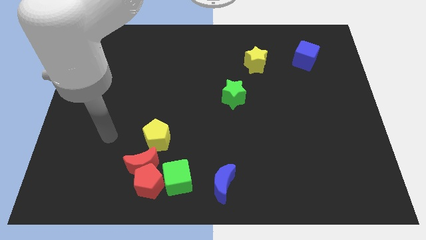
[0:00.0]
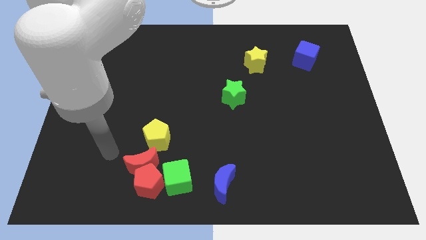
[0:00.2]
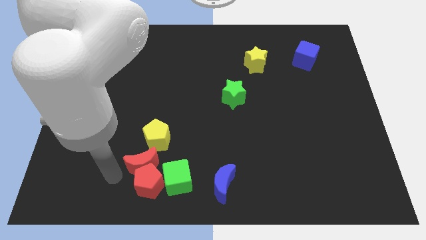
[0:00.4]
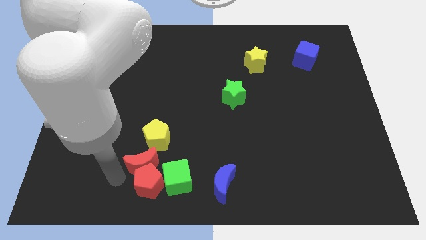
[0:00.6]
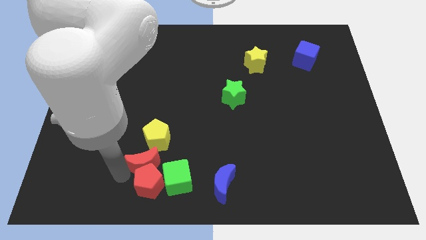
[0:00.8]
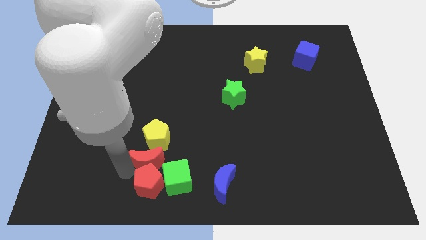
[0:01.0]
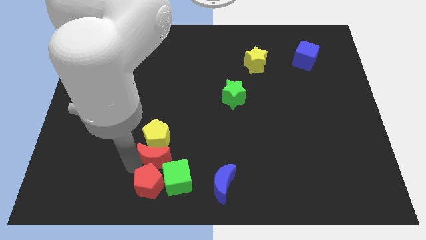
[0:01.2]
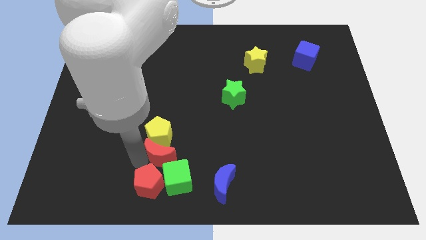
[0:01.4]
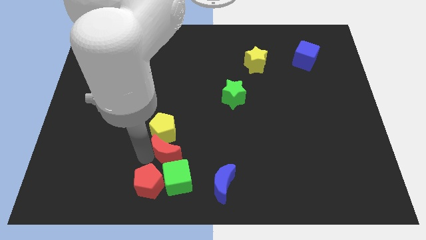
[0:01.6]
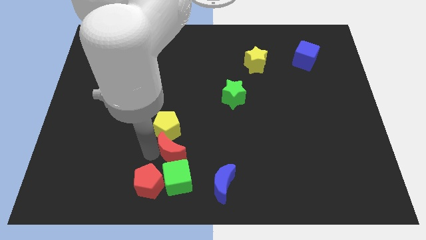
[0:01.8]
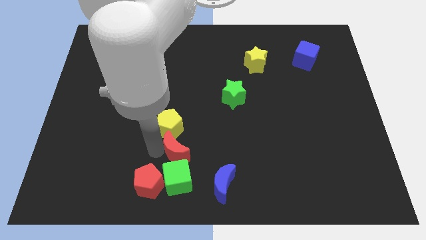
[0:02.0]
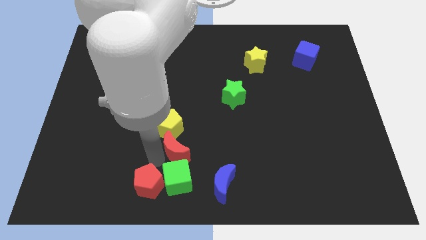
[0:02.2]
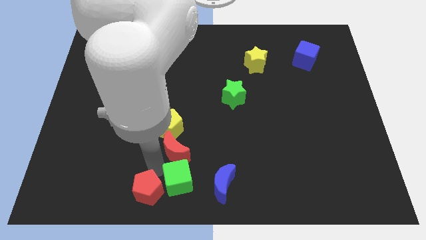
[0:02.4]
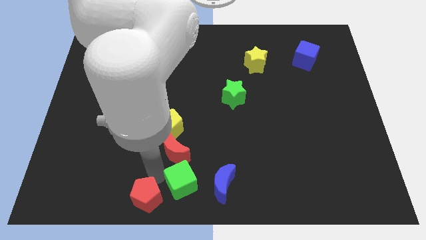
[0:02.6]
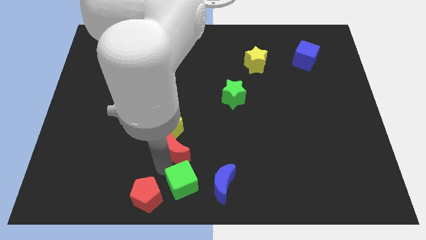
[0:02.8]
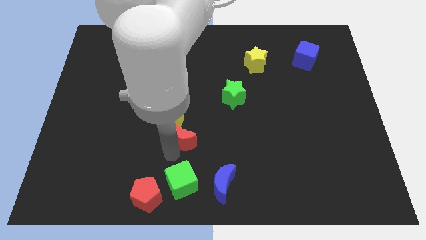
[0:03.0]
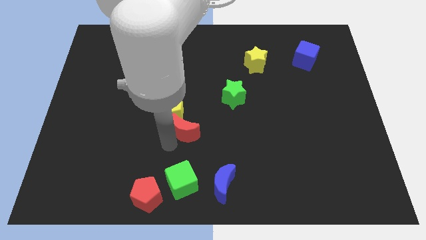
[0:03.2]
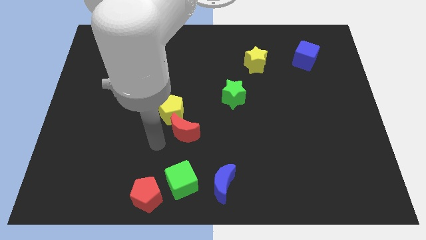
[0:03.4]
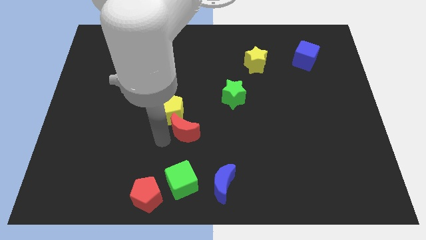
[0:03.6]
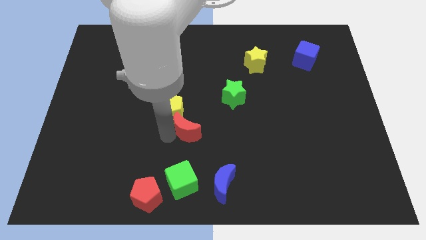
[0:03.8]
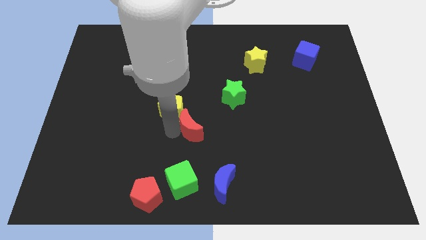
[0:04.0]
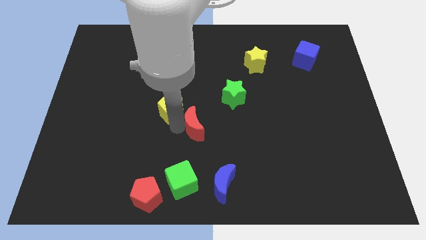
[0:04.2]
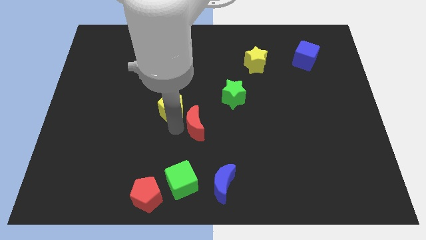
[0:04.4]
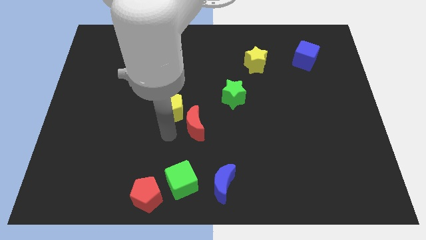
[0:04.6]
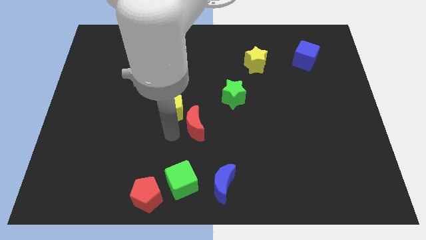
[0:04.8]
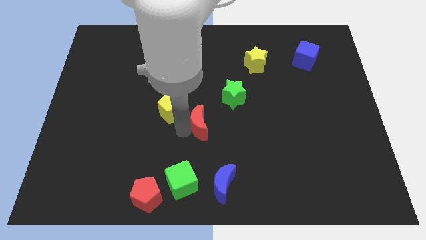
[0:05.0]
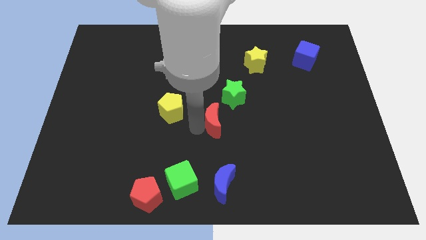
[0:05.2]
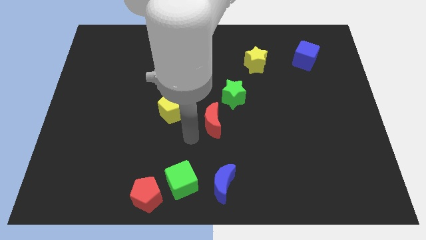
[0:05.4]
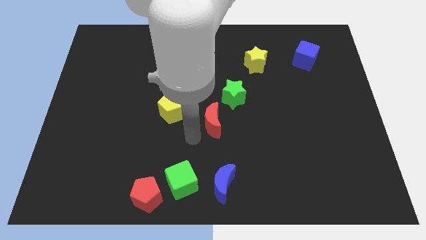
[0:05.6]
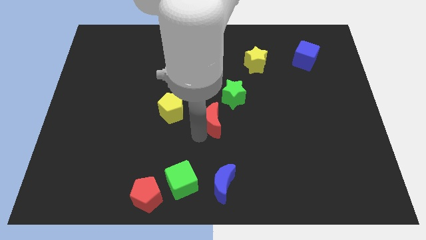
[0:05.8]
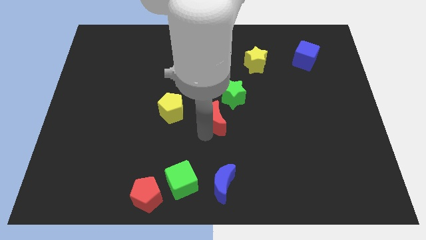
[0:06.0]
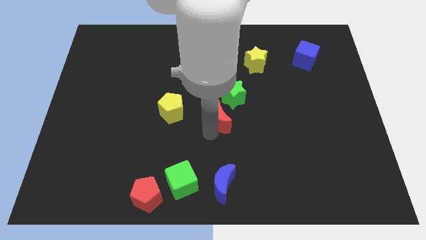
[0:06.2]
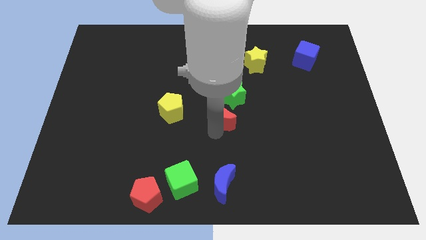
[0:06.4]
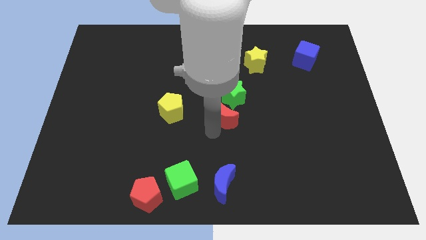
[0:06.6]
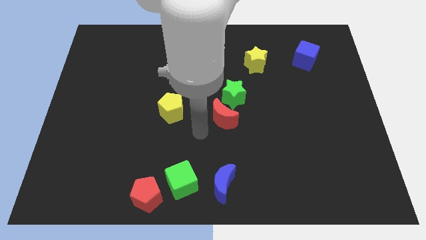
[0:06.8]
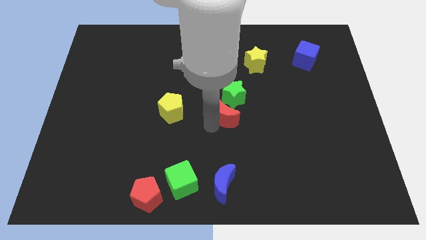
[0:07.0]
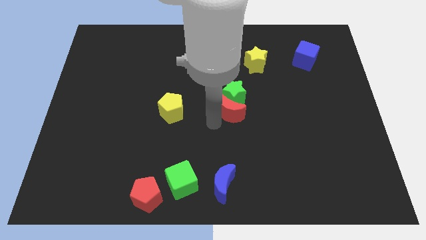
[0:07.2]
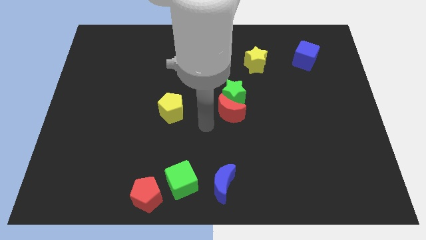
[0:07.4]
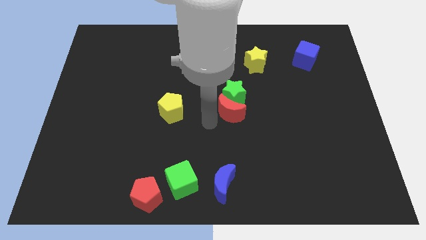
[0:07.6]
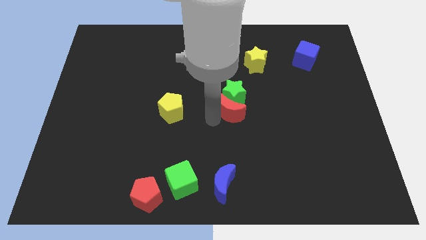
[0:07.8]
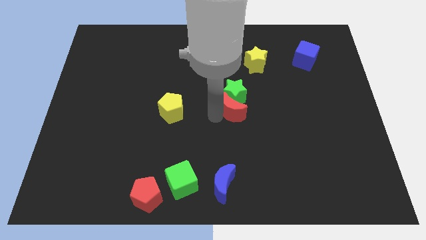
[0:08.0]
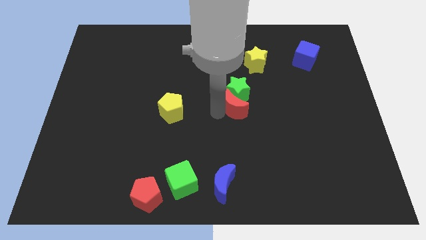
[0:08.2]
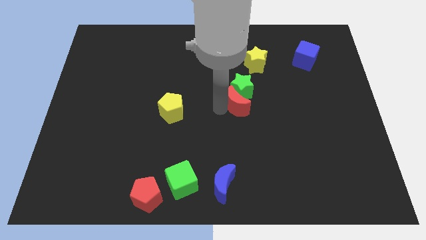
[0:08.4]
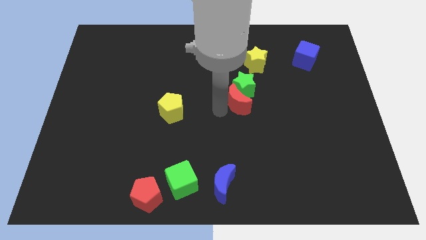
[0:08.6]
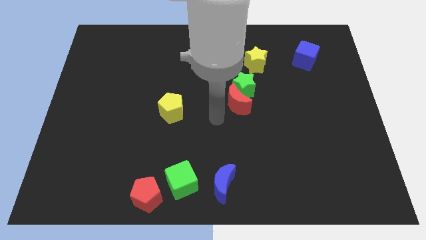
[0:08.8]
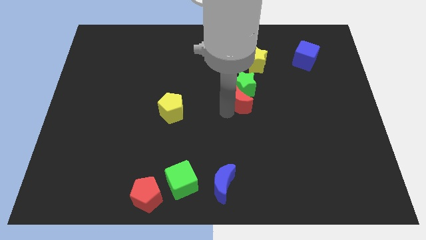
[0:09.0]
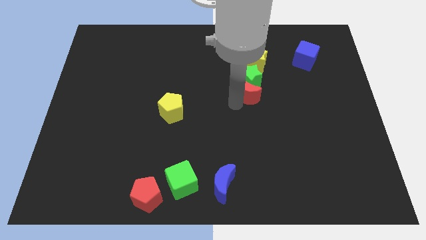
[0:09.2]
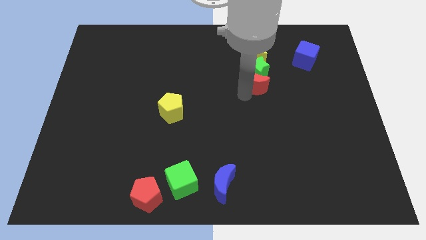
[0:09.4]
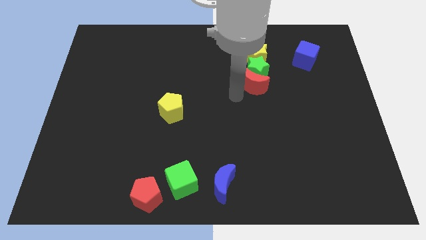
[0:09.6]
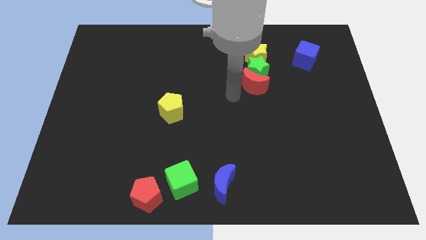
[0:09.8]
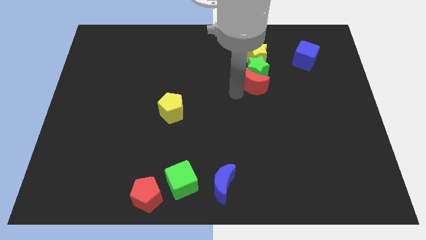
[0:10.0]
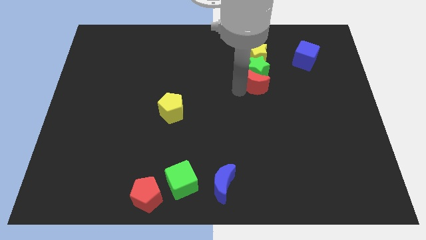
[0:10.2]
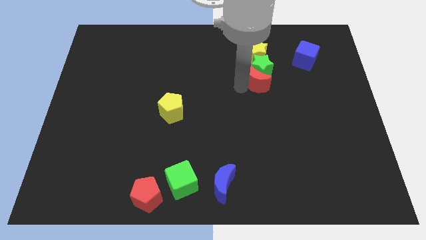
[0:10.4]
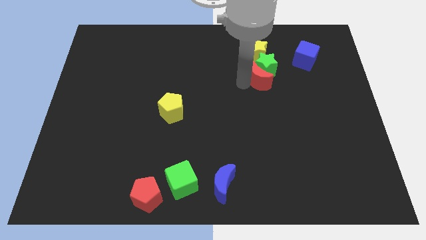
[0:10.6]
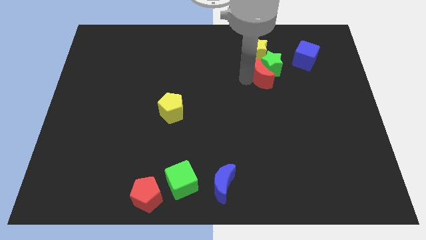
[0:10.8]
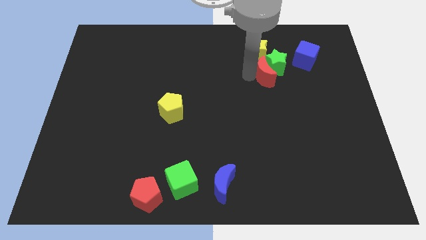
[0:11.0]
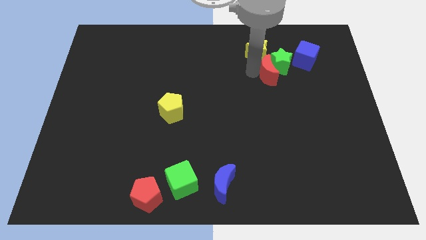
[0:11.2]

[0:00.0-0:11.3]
move the red moon diagonally down and to the left of the blue cube
